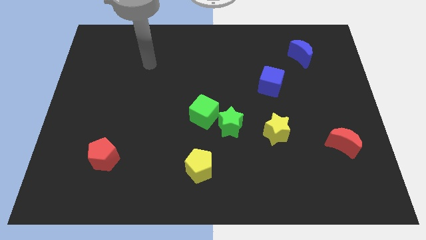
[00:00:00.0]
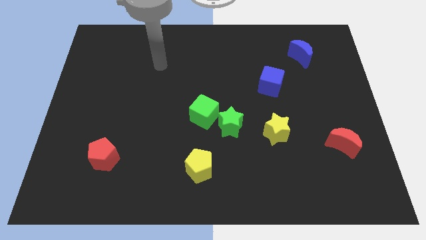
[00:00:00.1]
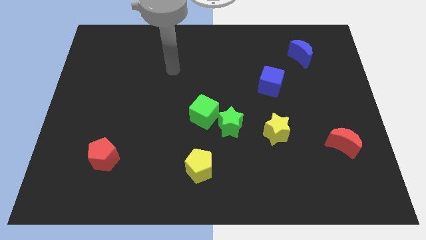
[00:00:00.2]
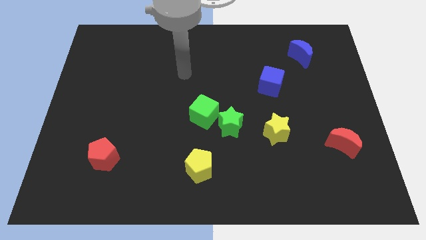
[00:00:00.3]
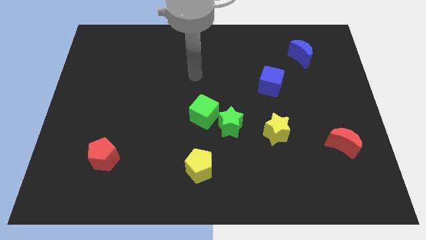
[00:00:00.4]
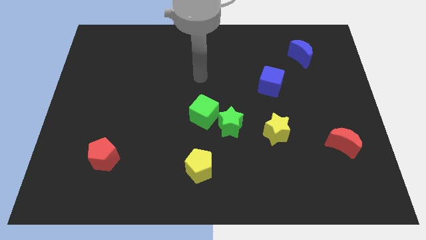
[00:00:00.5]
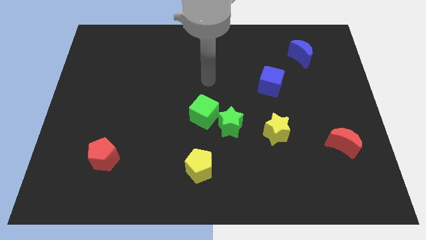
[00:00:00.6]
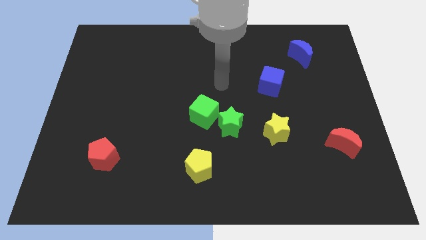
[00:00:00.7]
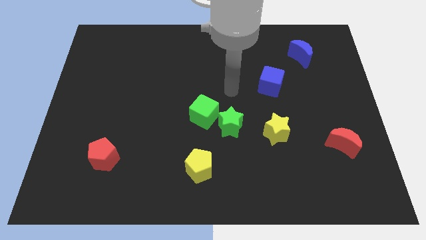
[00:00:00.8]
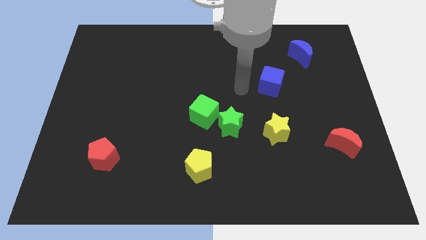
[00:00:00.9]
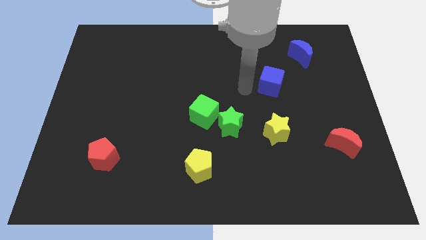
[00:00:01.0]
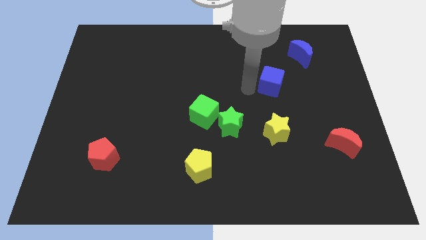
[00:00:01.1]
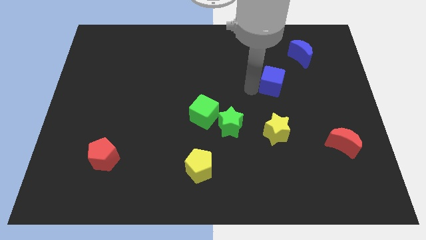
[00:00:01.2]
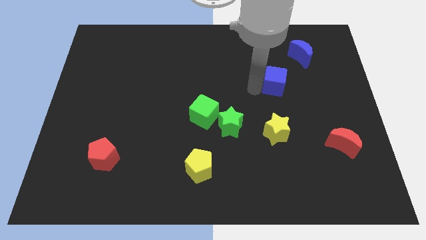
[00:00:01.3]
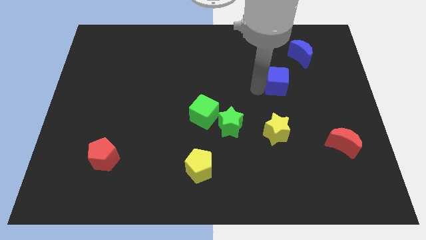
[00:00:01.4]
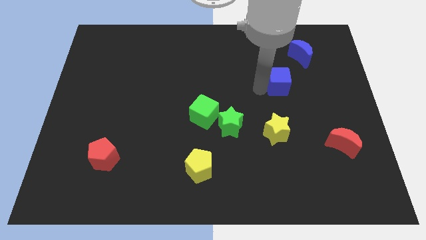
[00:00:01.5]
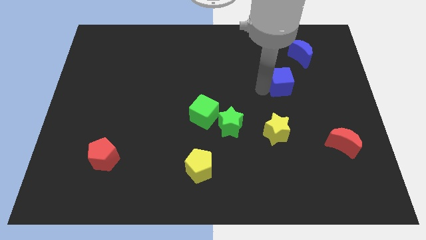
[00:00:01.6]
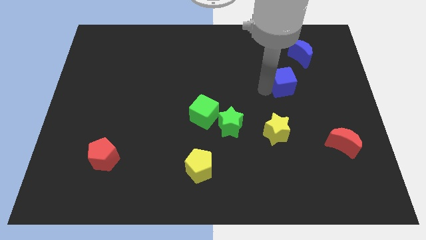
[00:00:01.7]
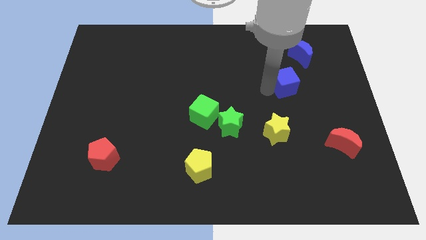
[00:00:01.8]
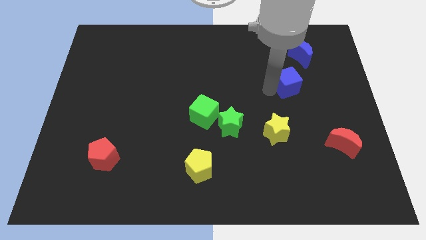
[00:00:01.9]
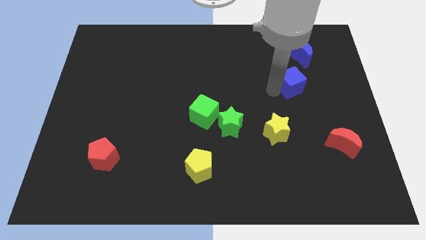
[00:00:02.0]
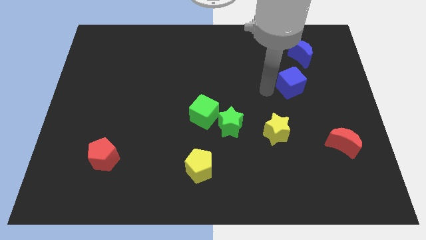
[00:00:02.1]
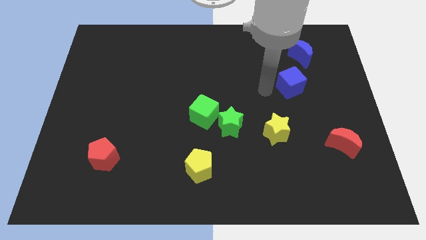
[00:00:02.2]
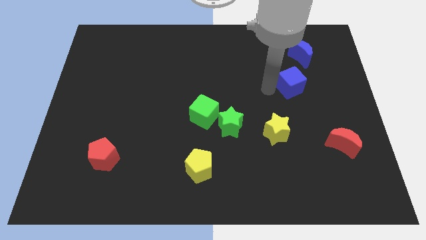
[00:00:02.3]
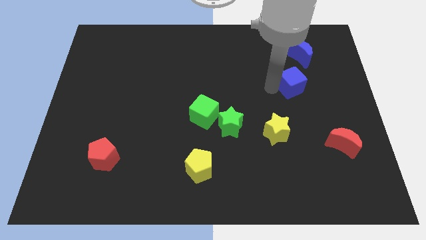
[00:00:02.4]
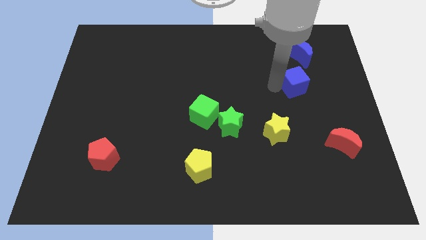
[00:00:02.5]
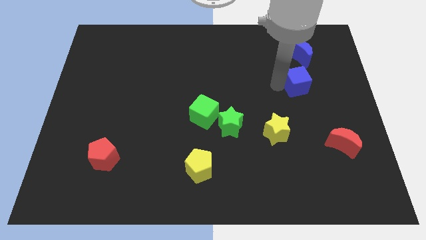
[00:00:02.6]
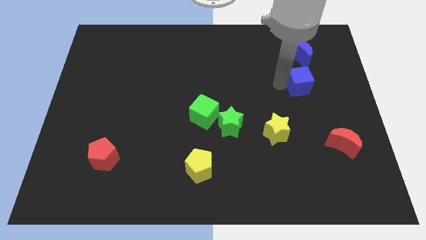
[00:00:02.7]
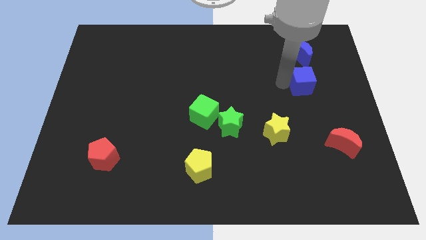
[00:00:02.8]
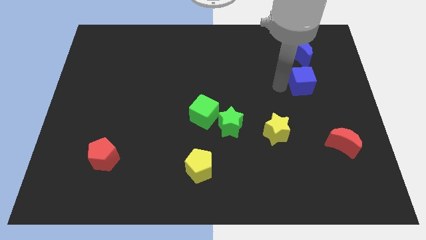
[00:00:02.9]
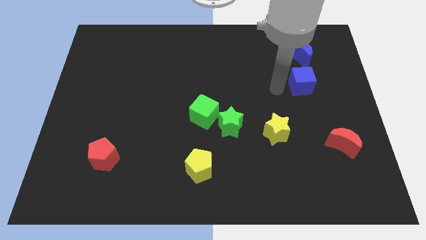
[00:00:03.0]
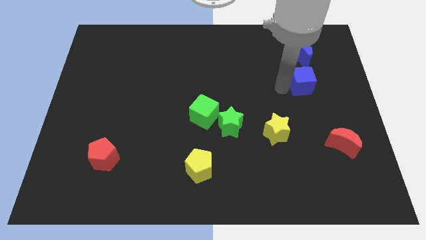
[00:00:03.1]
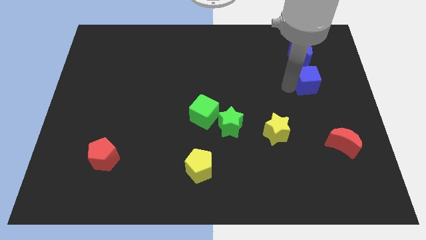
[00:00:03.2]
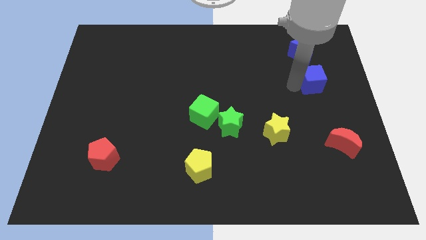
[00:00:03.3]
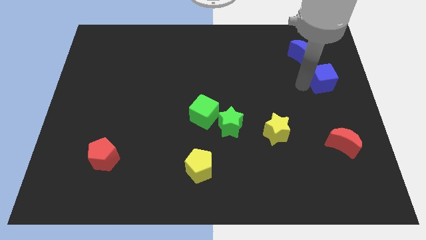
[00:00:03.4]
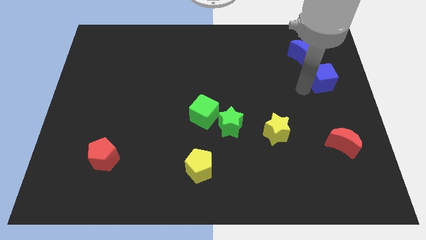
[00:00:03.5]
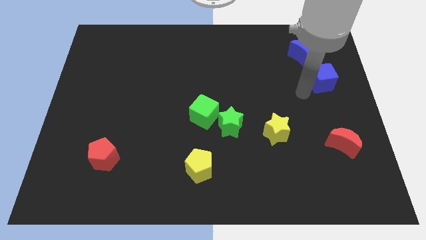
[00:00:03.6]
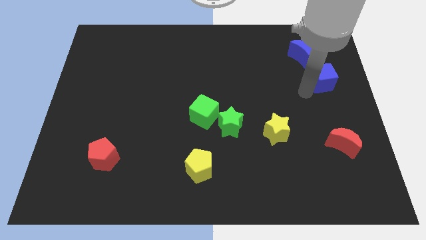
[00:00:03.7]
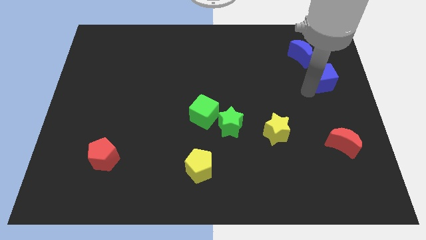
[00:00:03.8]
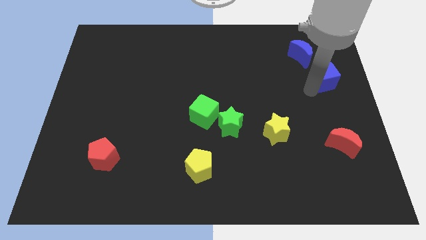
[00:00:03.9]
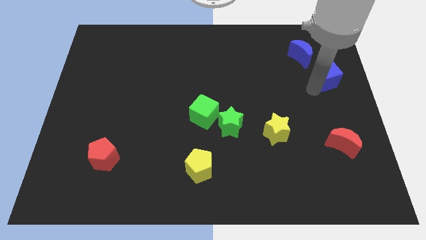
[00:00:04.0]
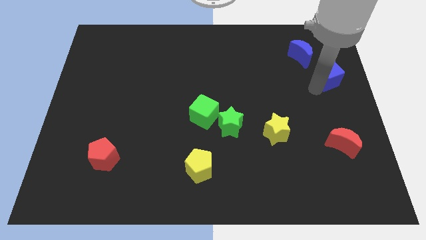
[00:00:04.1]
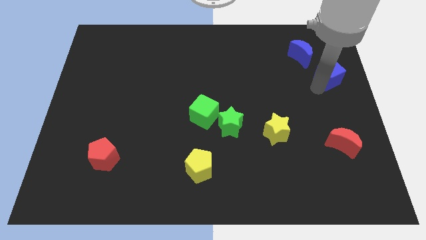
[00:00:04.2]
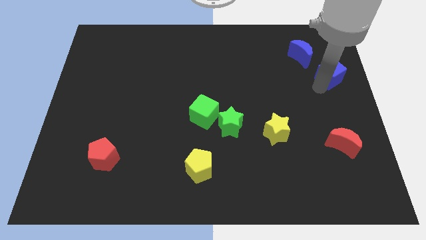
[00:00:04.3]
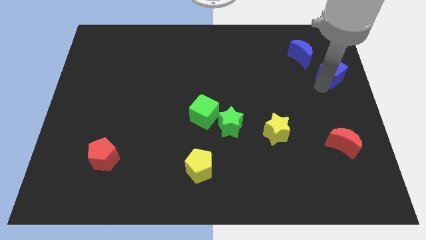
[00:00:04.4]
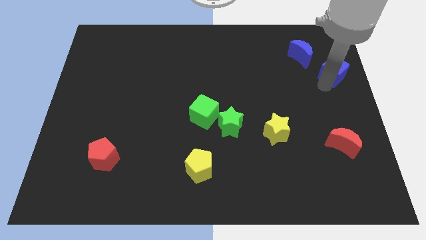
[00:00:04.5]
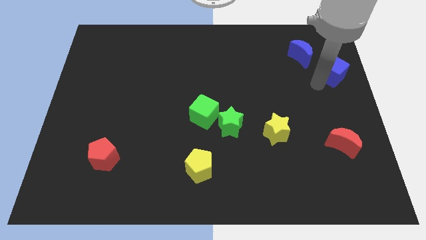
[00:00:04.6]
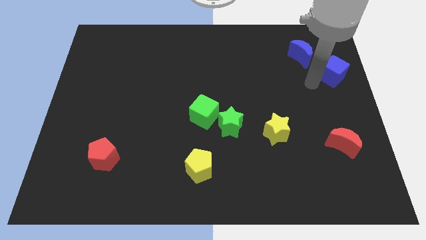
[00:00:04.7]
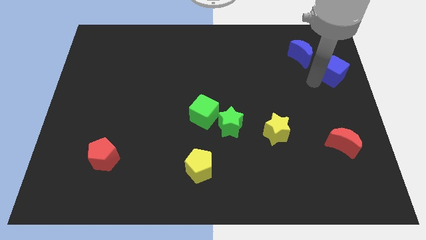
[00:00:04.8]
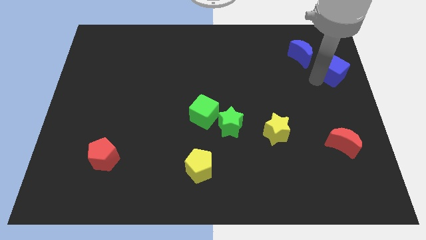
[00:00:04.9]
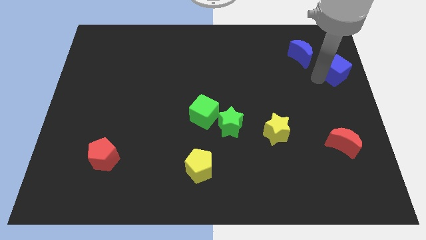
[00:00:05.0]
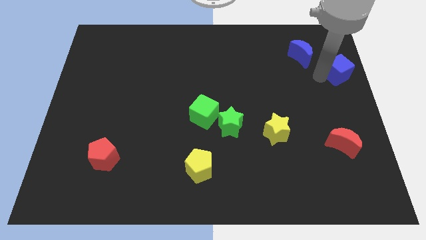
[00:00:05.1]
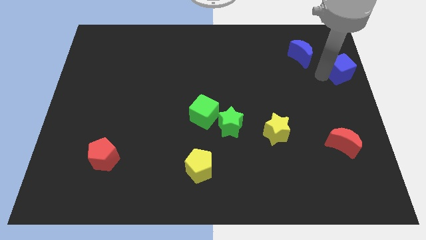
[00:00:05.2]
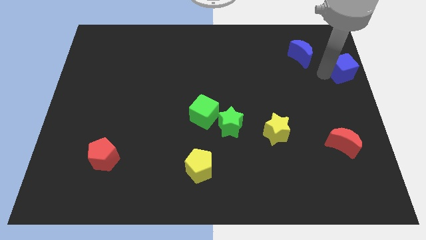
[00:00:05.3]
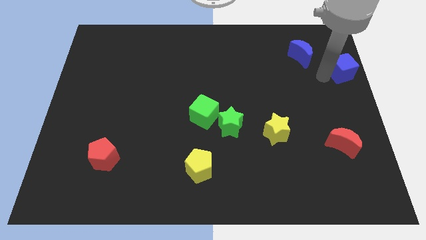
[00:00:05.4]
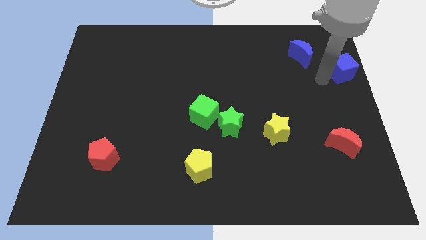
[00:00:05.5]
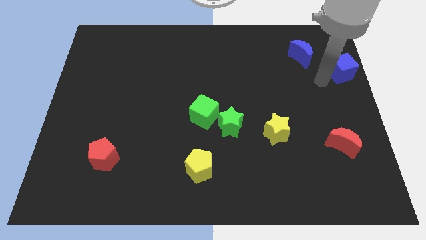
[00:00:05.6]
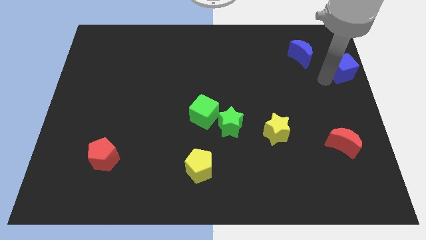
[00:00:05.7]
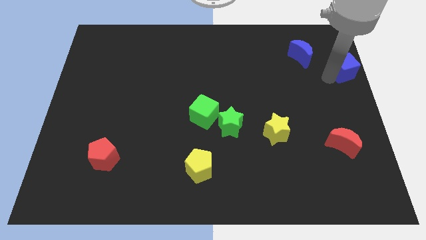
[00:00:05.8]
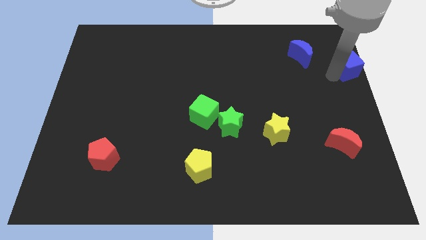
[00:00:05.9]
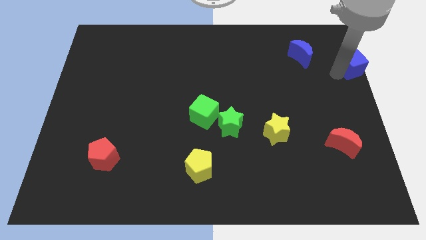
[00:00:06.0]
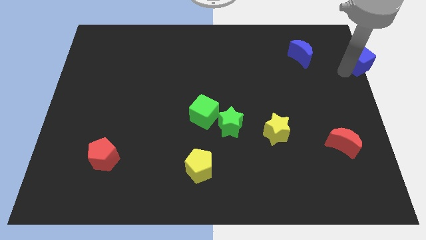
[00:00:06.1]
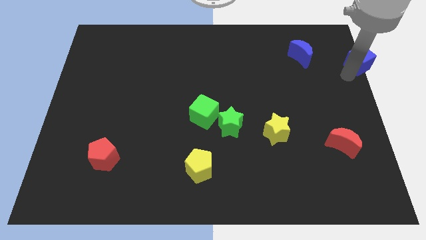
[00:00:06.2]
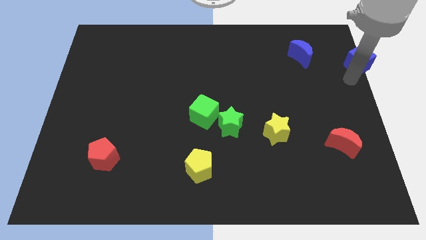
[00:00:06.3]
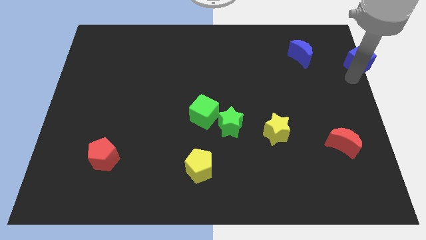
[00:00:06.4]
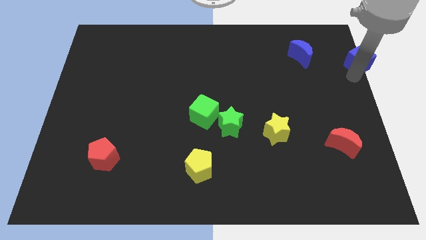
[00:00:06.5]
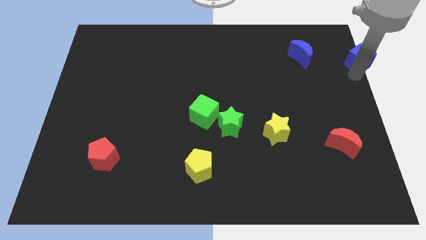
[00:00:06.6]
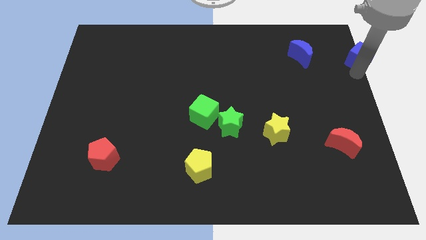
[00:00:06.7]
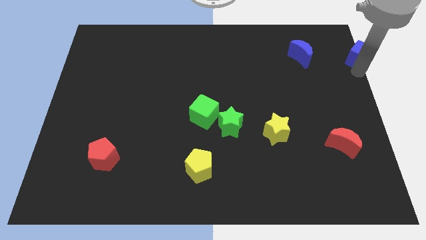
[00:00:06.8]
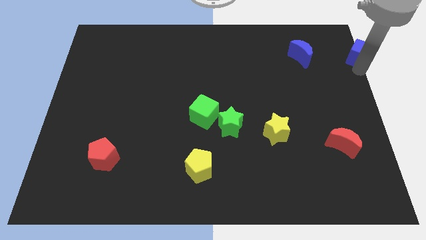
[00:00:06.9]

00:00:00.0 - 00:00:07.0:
put the blue cube to the top right of the board
